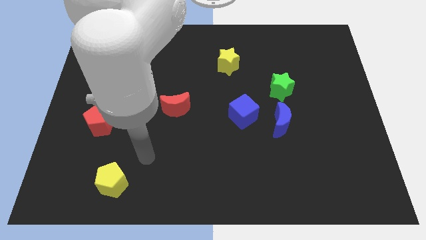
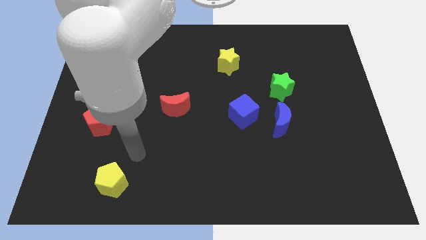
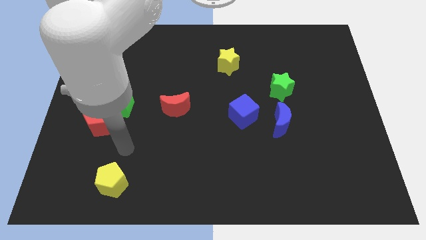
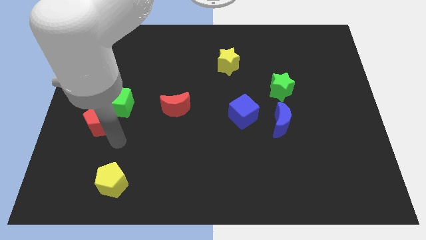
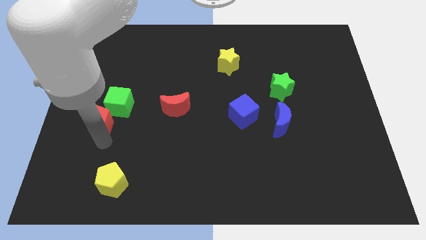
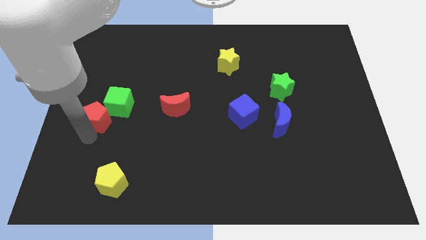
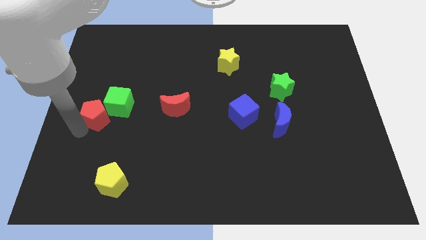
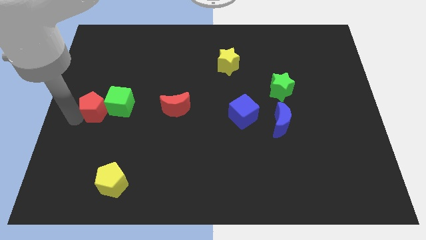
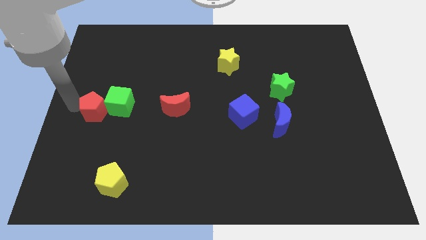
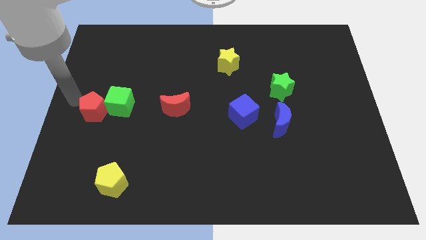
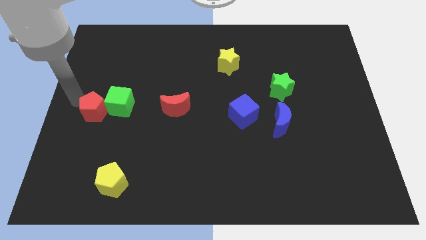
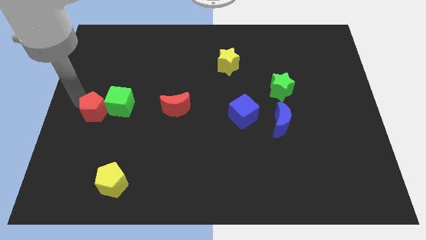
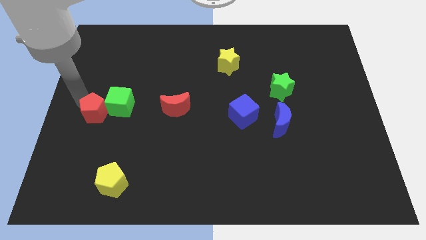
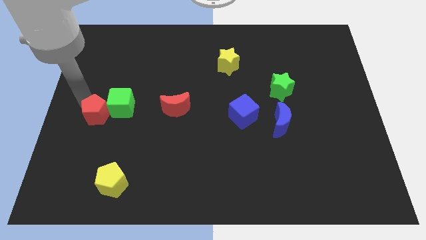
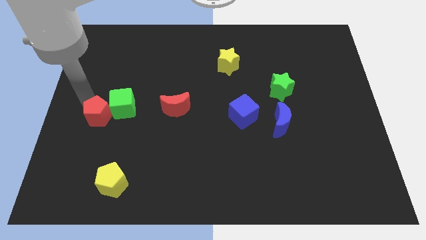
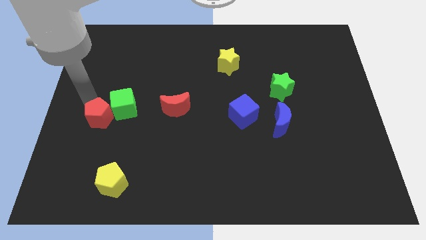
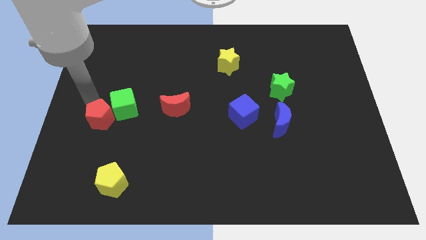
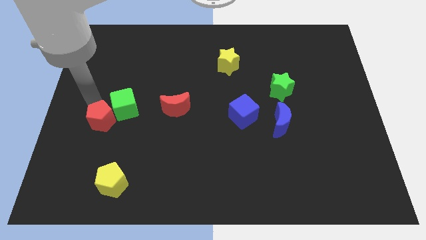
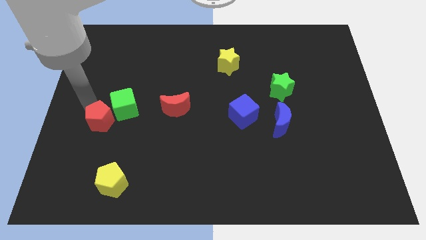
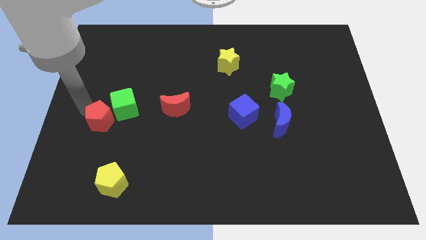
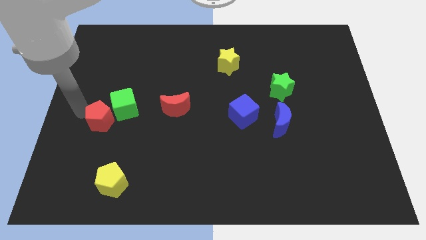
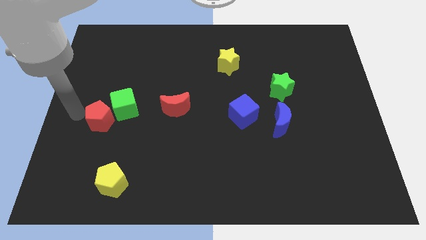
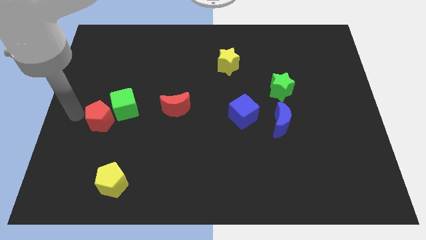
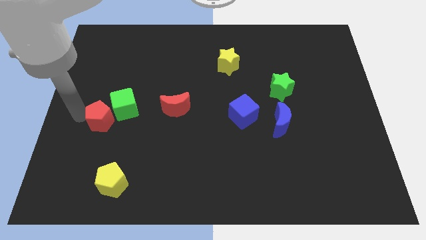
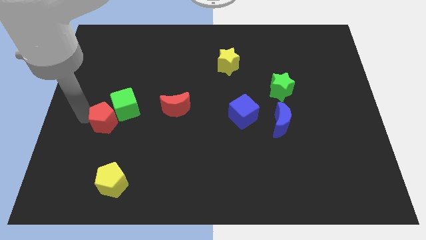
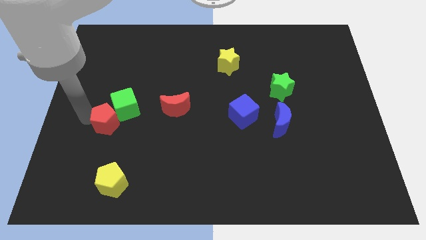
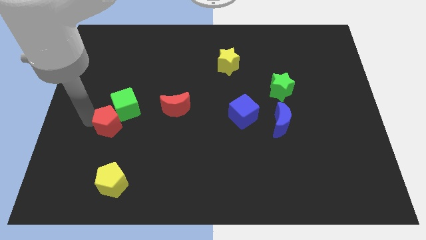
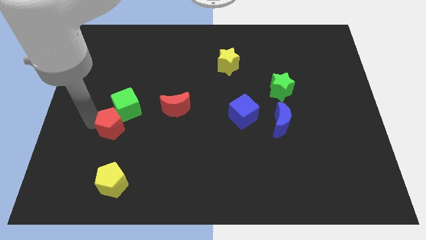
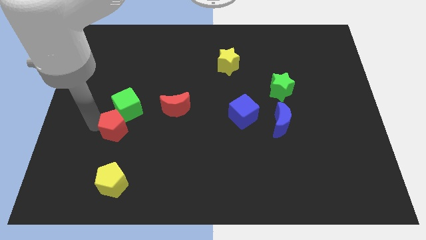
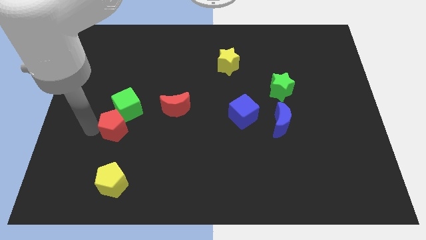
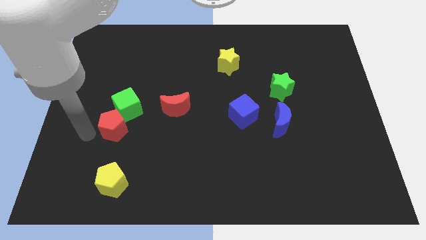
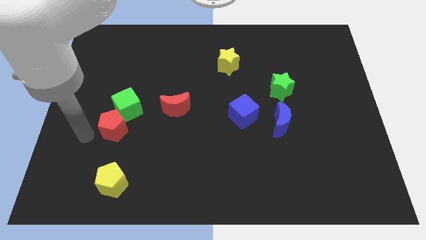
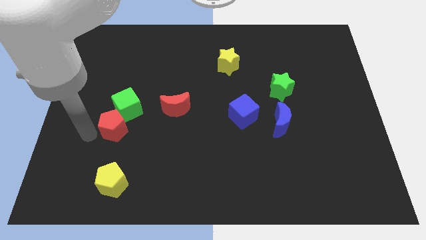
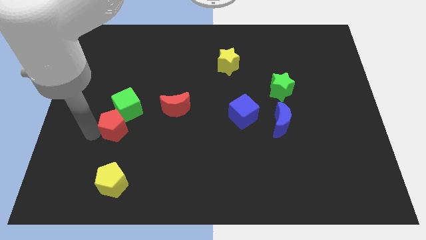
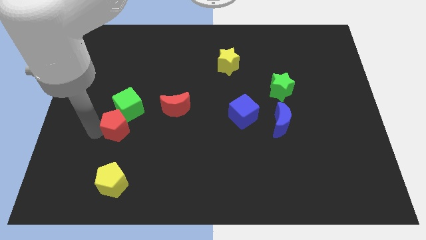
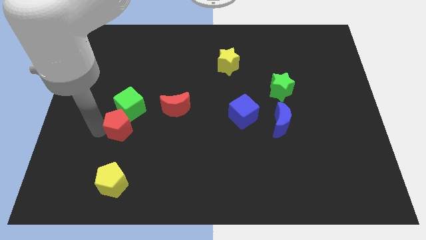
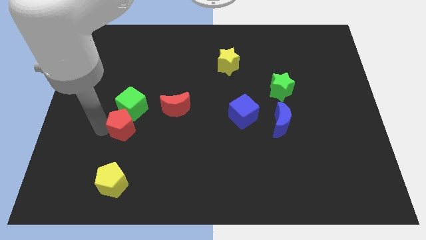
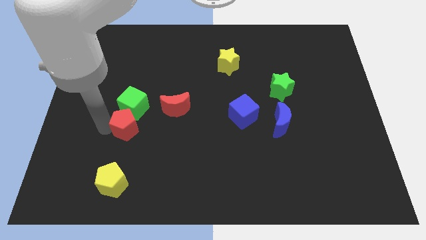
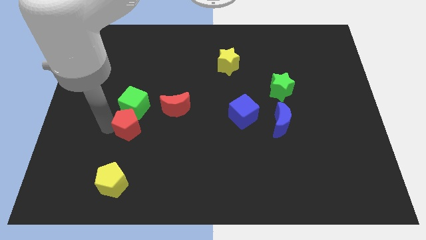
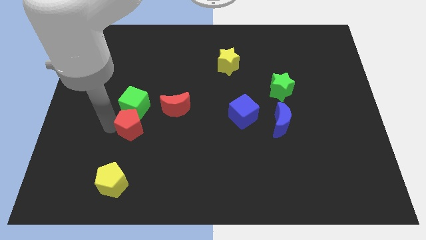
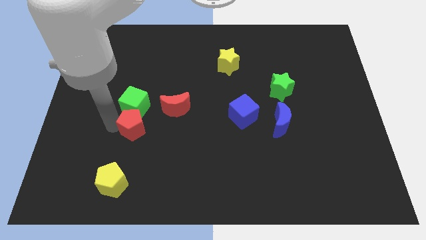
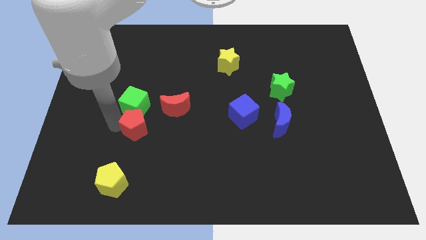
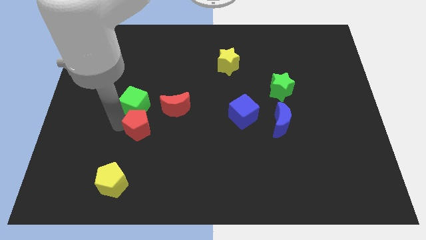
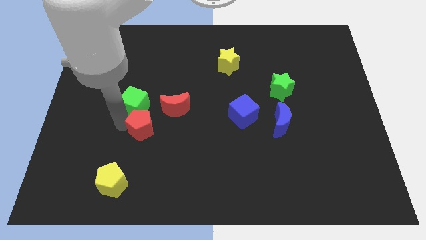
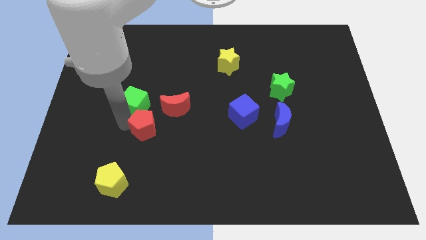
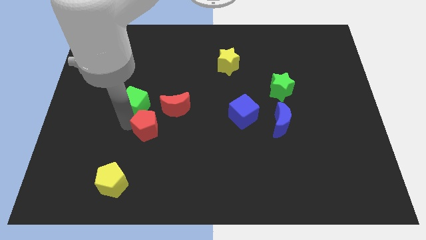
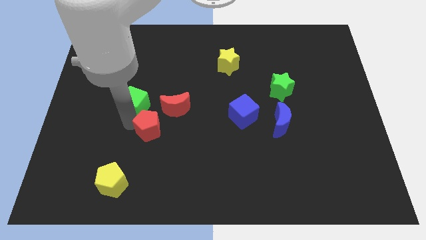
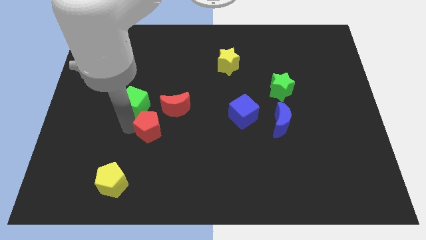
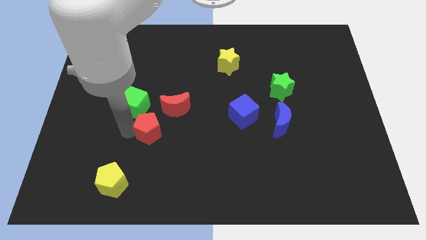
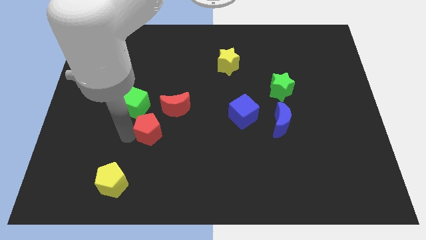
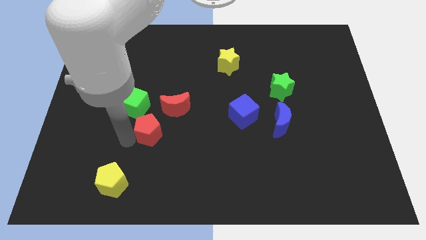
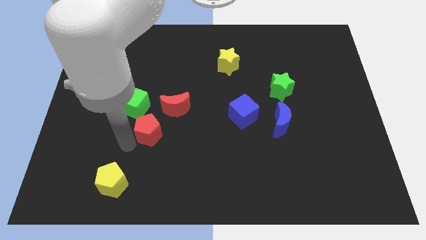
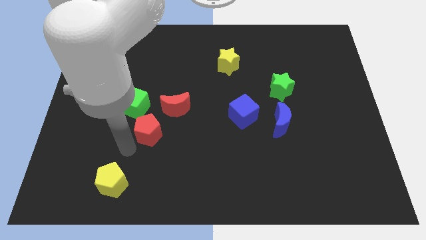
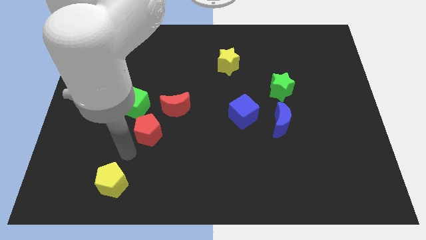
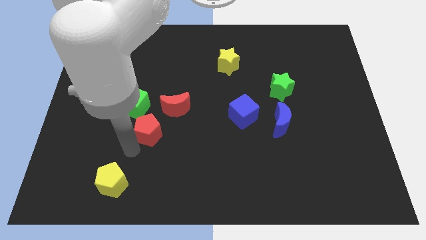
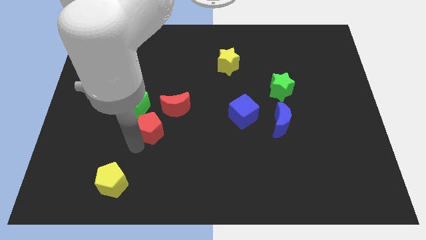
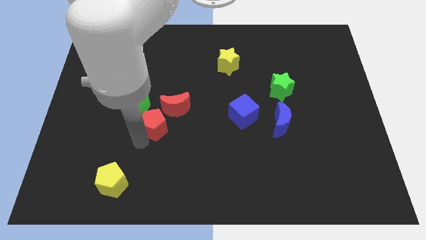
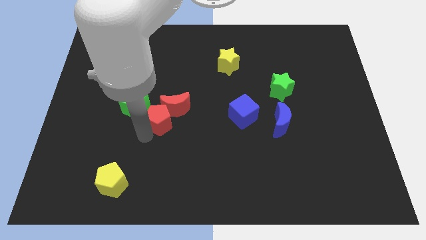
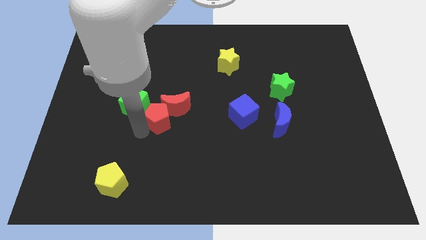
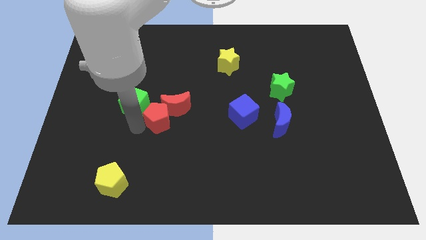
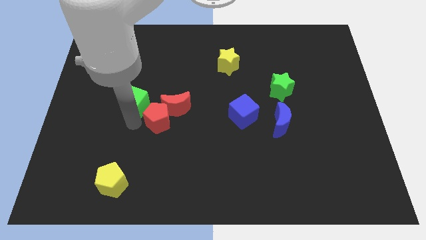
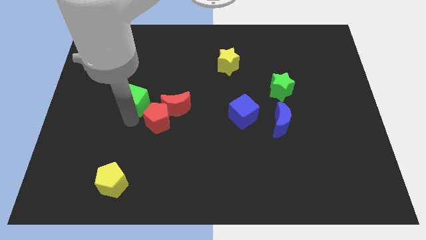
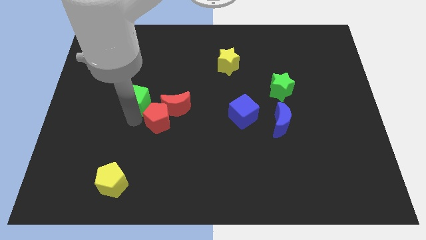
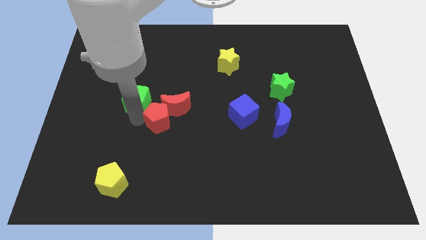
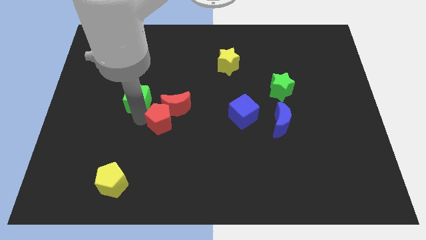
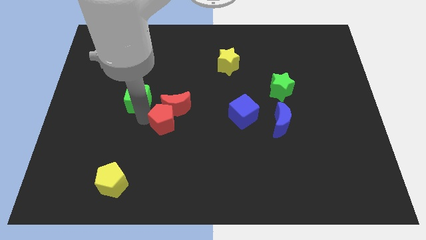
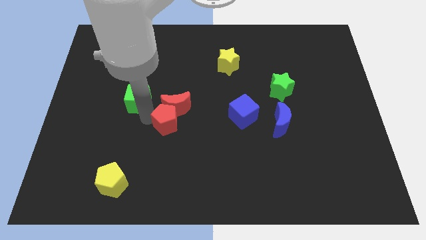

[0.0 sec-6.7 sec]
slide the red pentagon to the middle

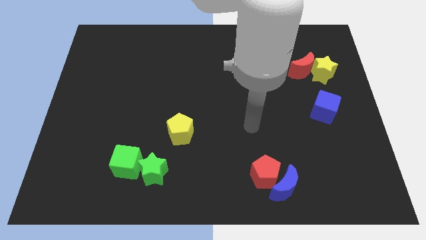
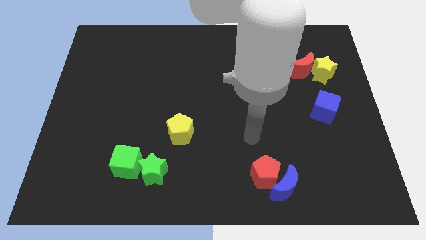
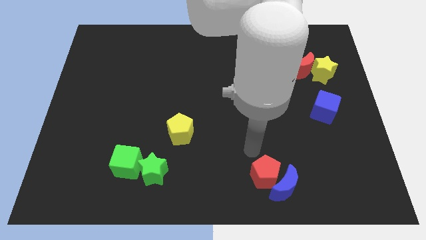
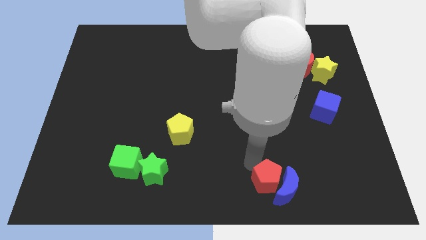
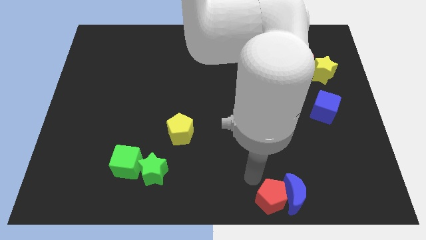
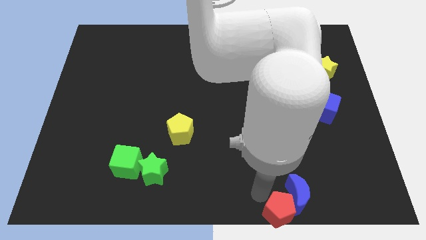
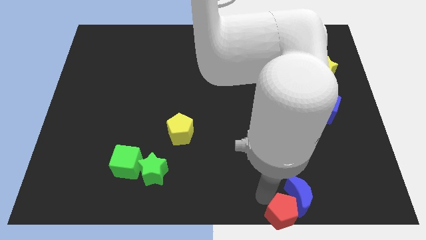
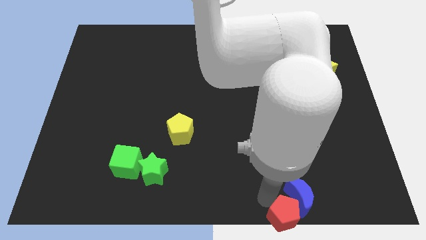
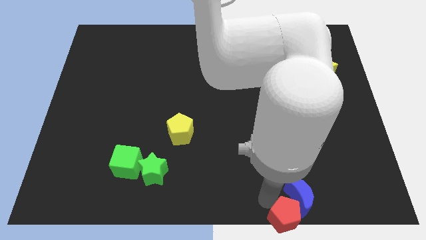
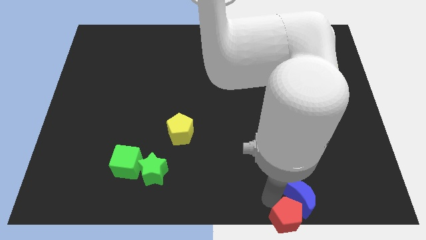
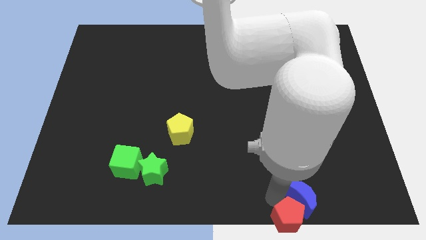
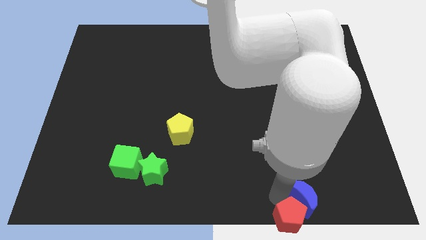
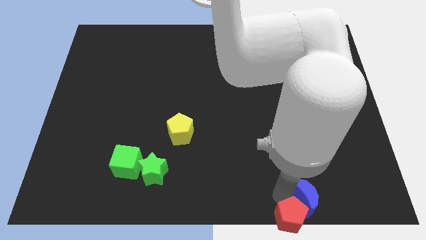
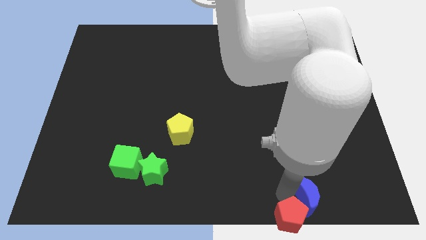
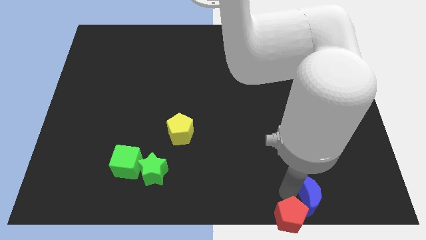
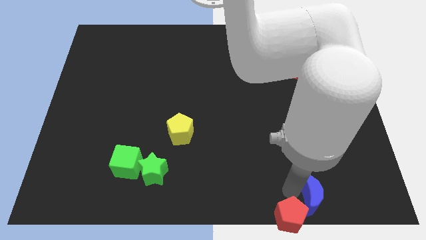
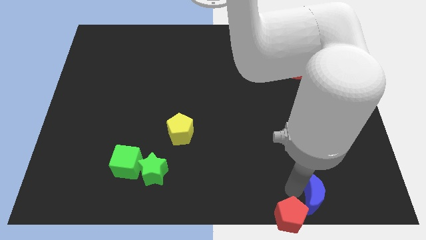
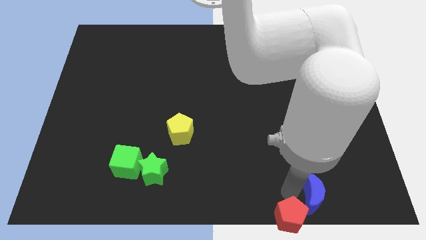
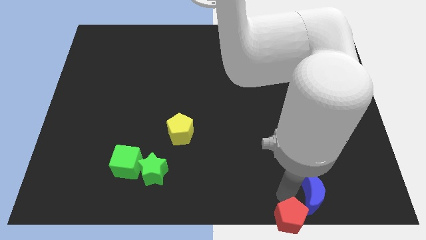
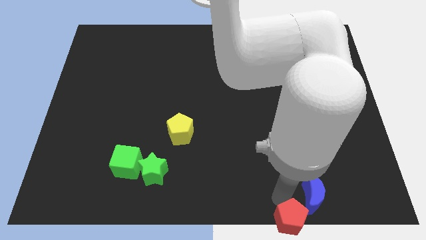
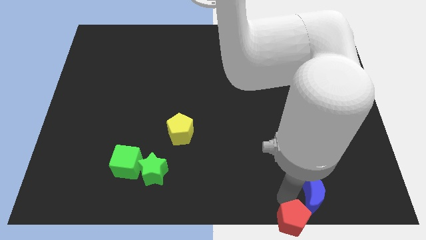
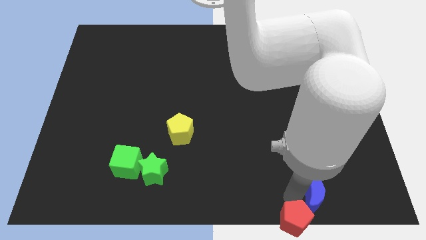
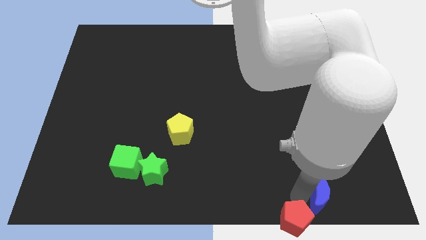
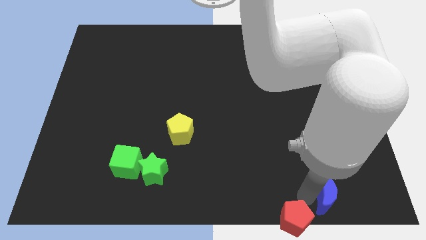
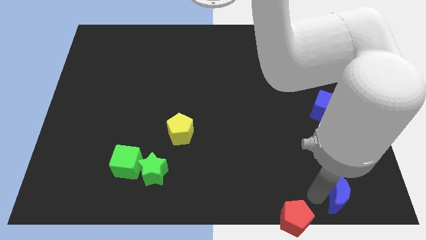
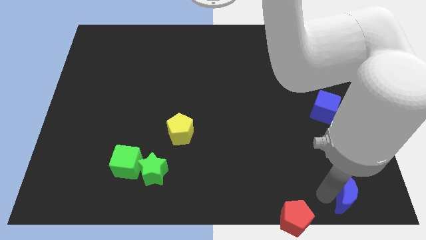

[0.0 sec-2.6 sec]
move the blue moon to the lower right corner
